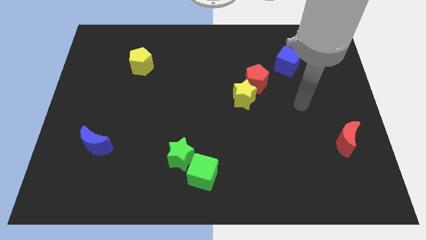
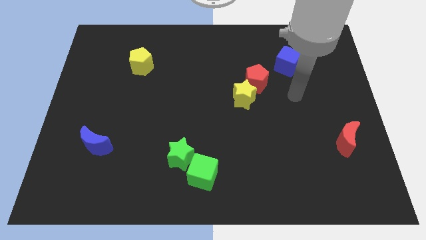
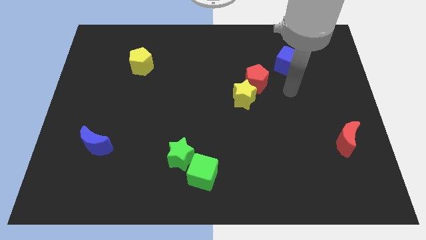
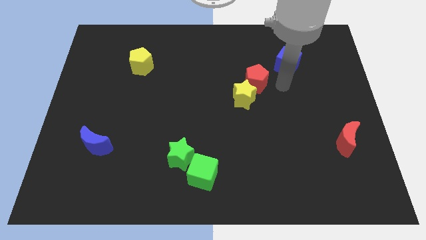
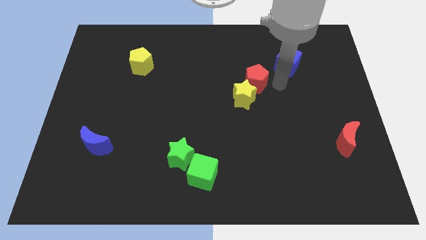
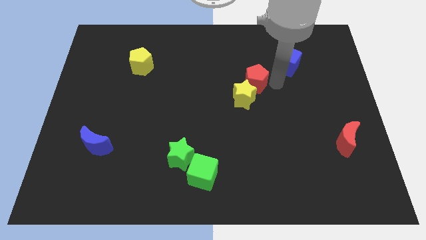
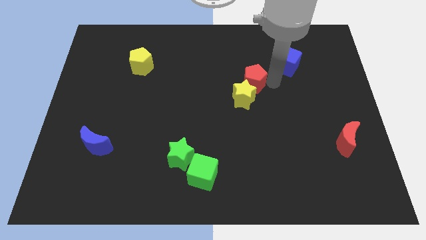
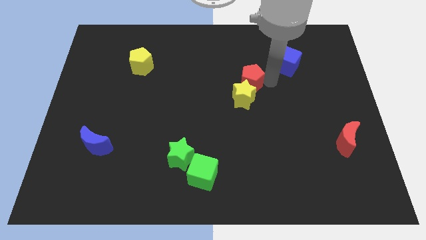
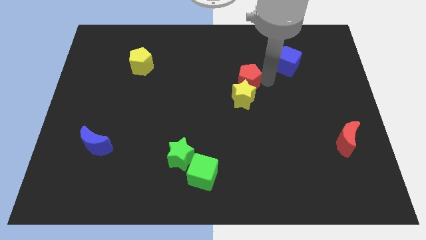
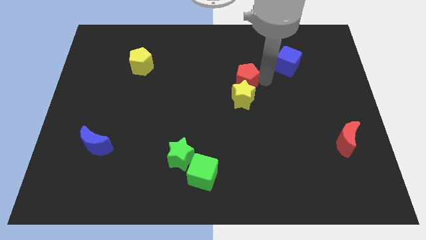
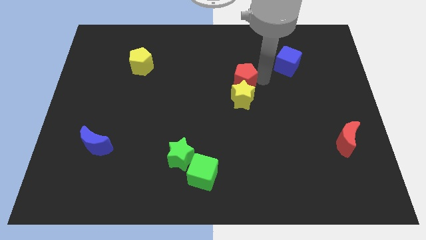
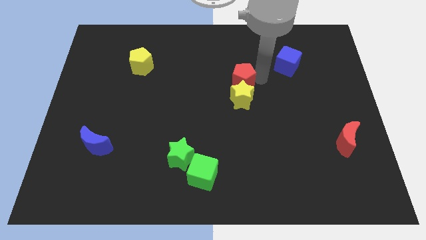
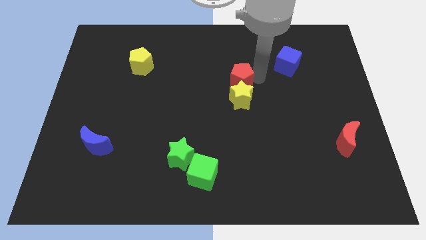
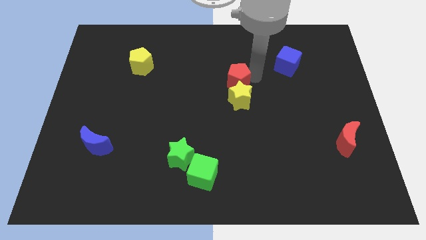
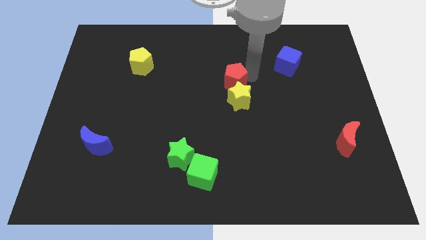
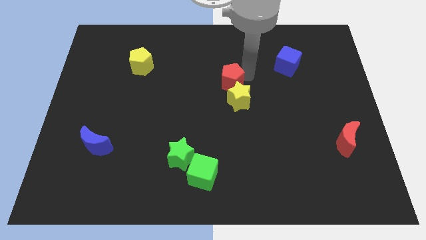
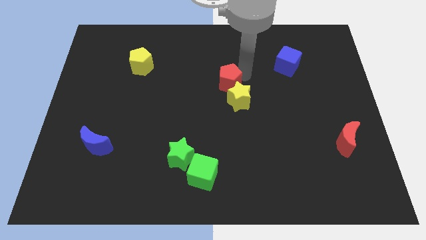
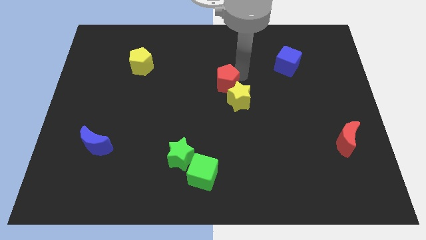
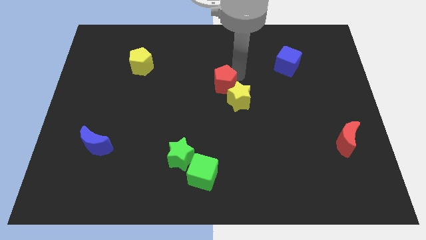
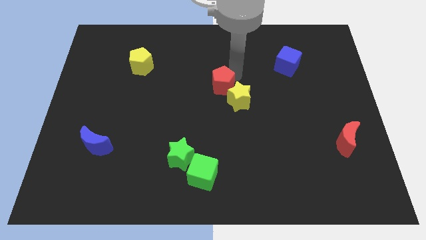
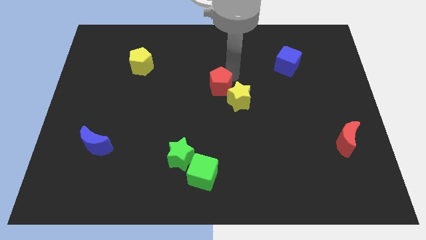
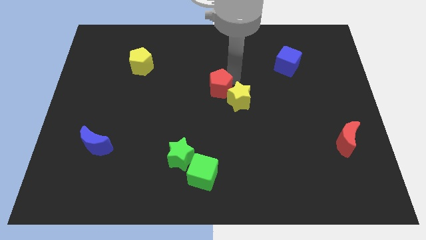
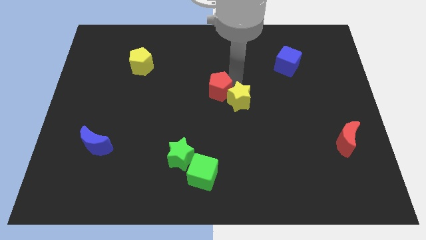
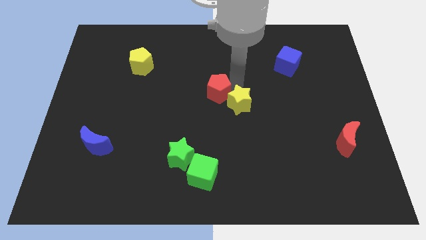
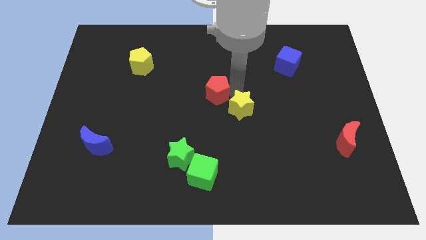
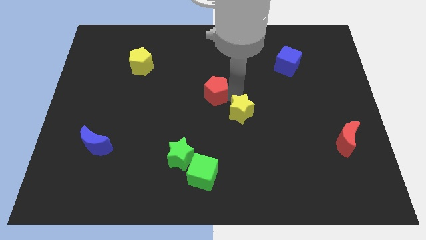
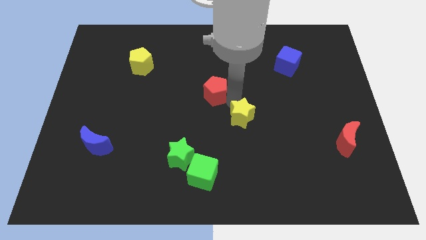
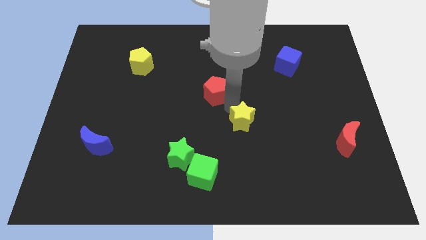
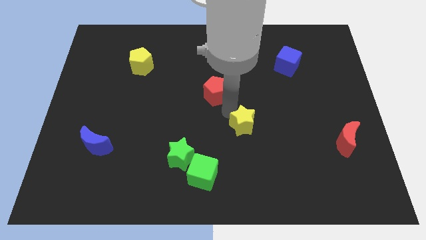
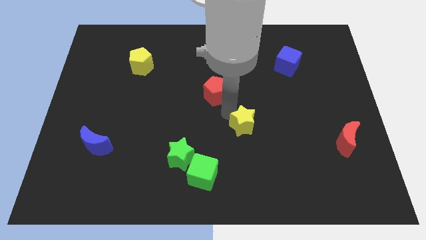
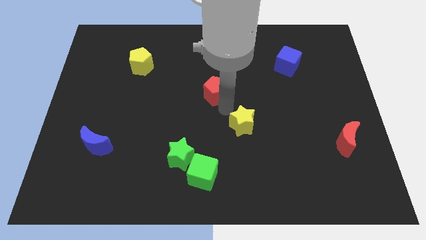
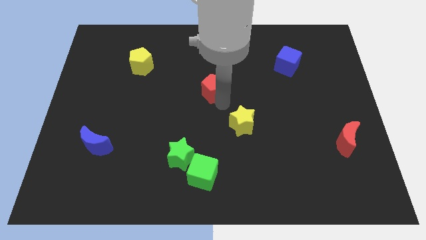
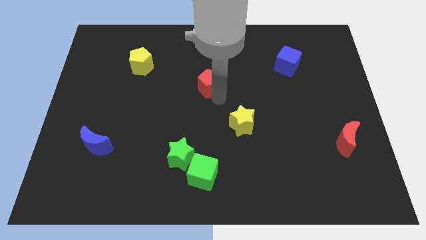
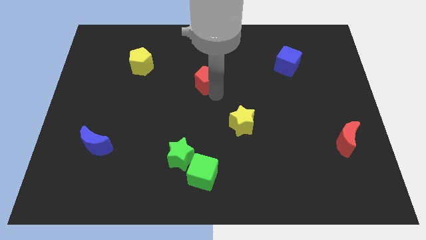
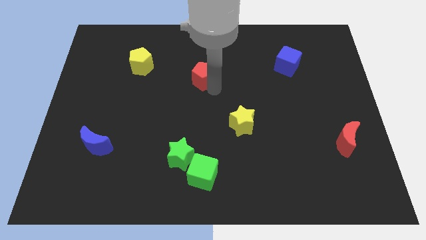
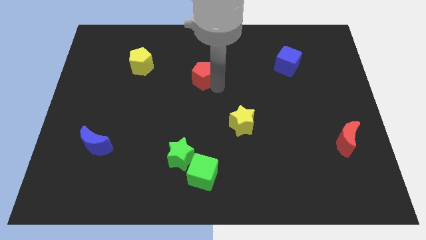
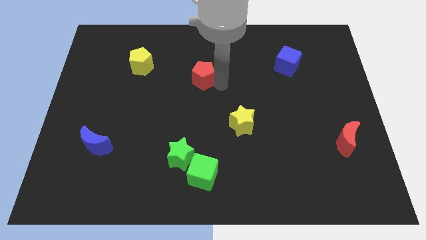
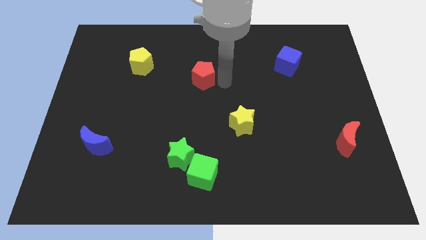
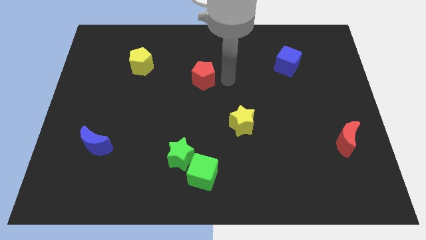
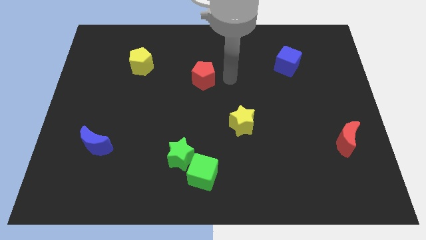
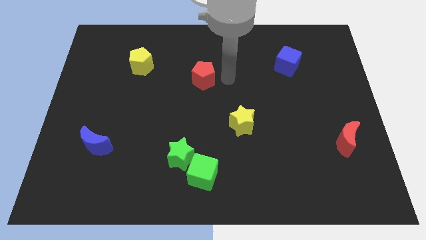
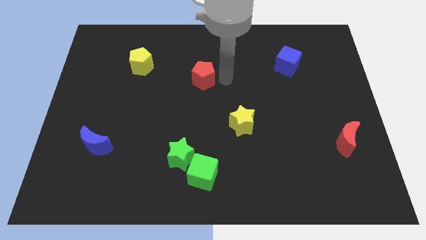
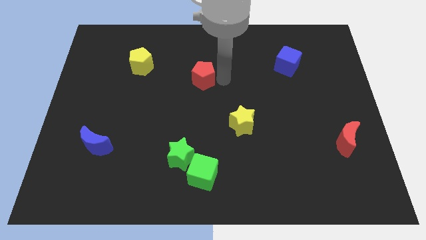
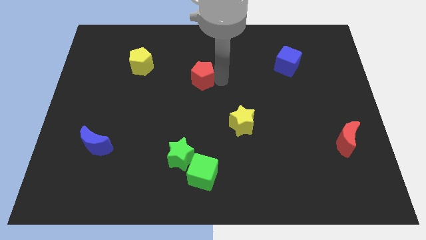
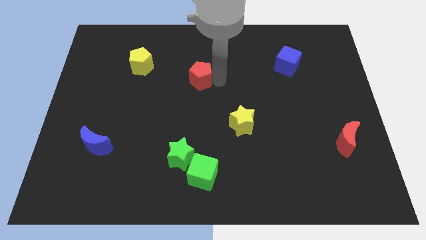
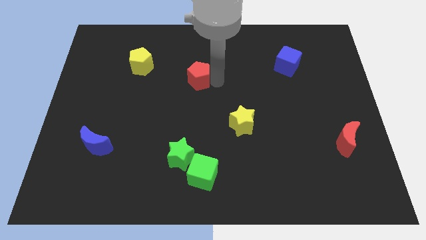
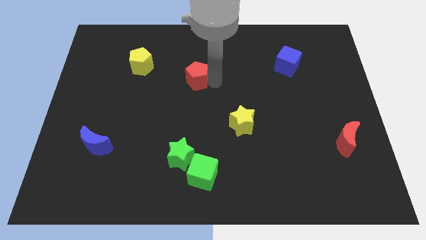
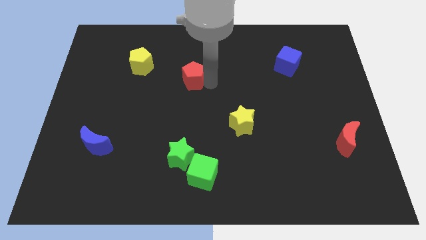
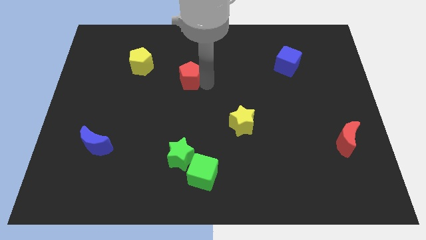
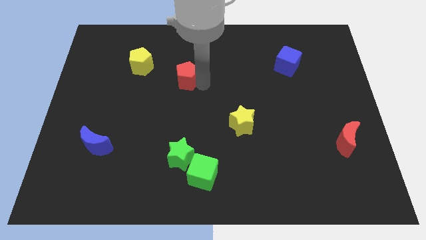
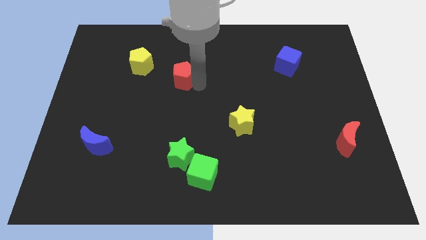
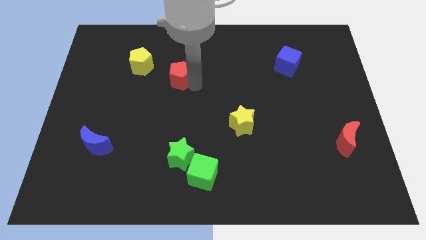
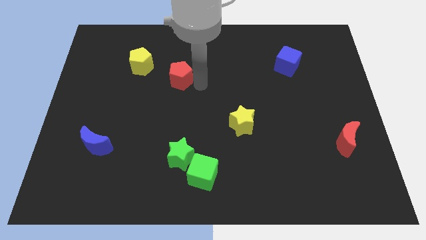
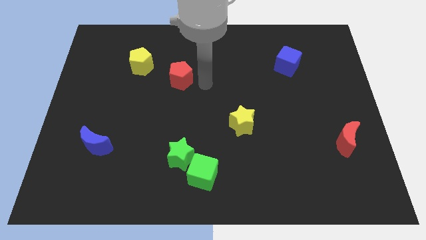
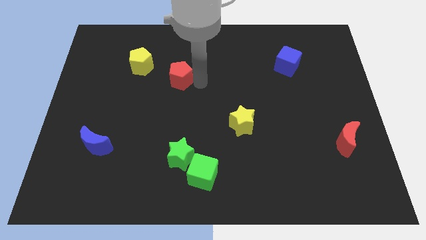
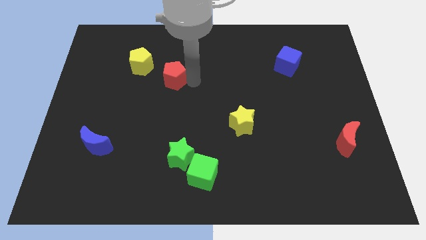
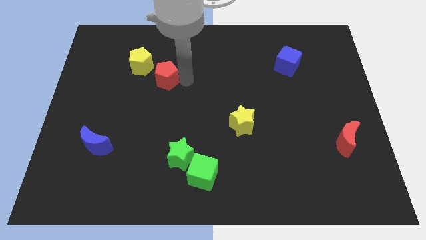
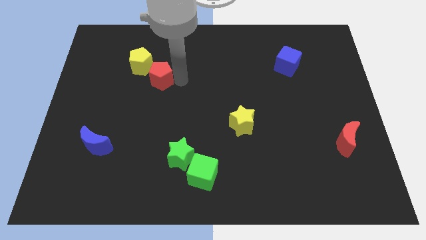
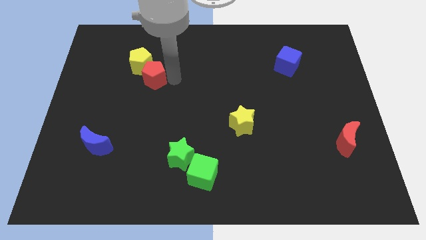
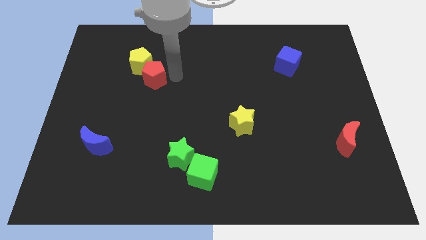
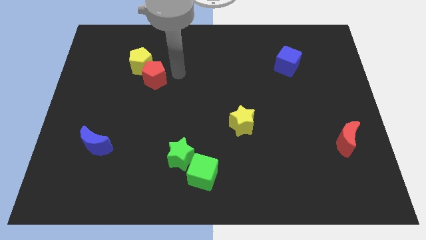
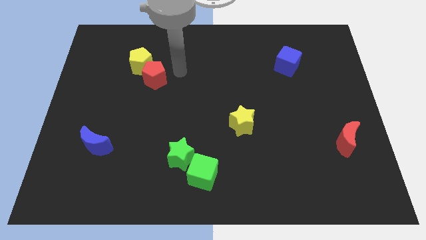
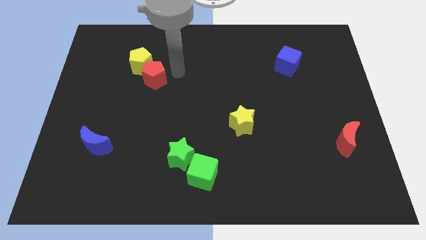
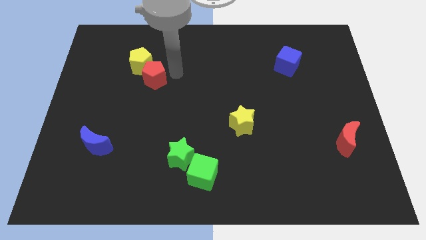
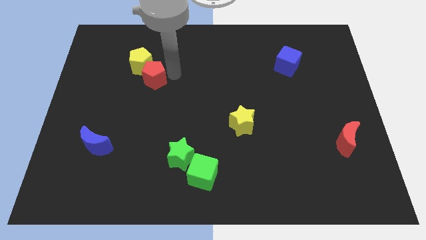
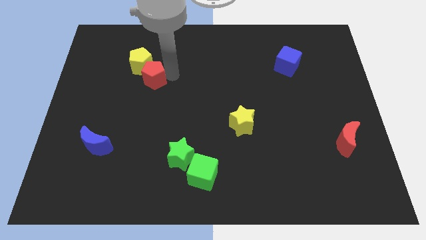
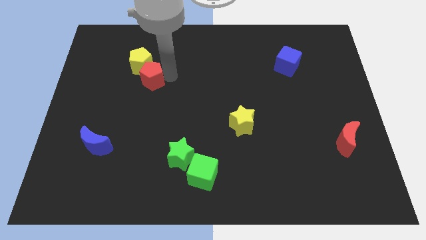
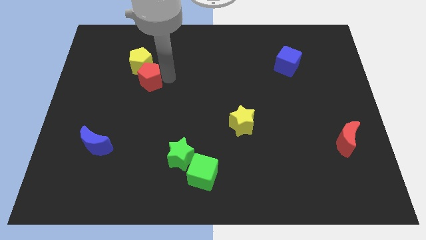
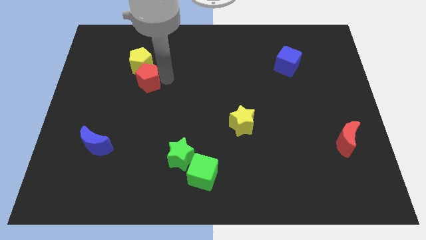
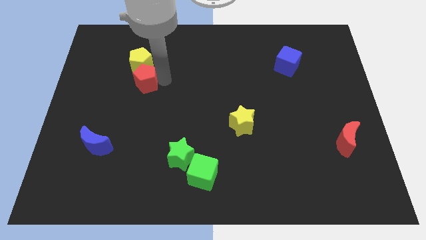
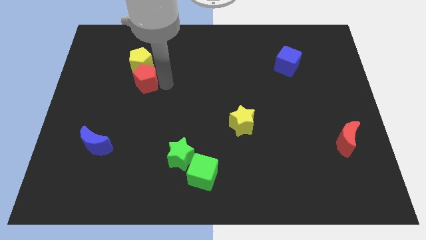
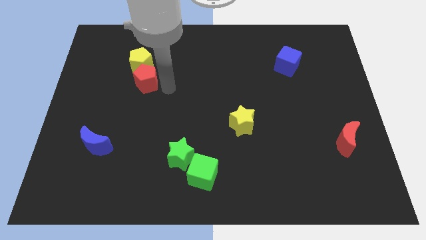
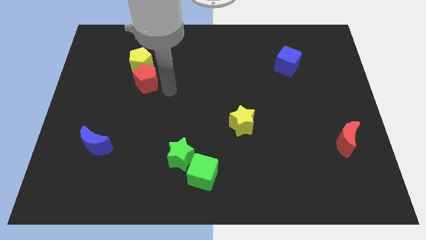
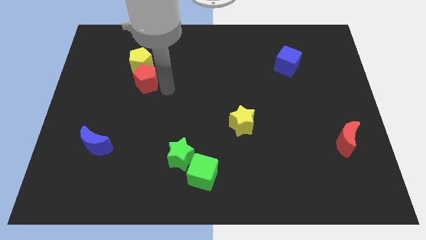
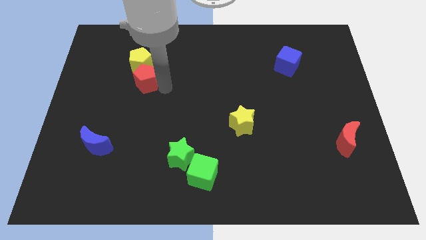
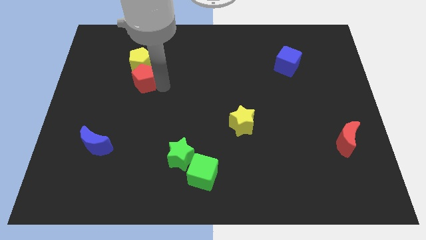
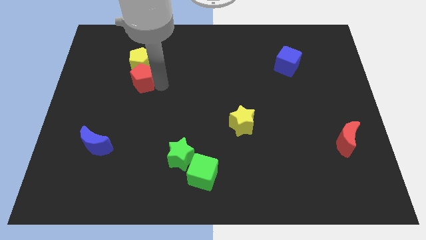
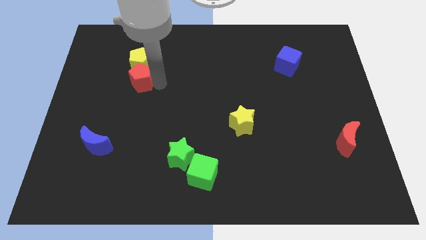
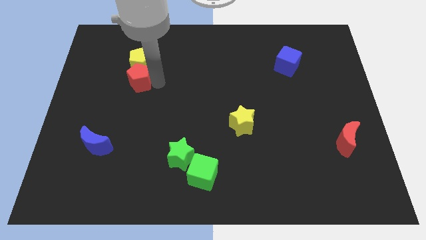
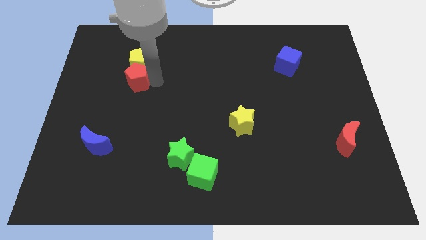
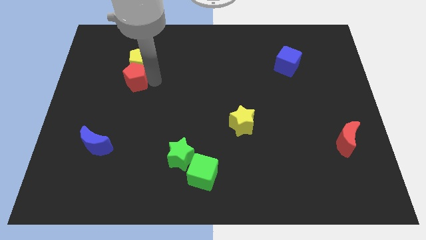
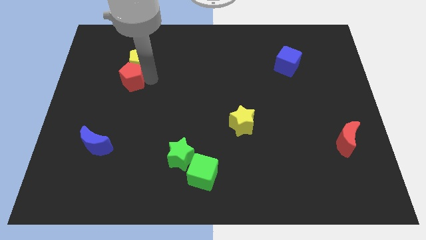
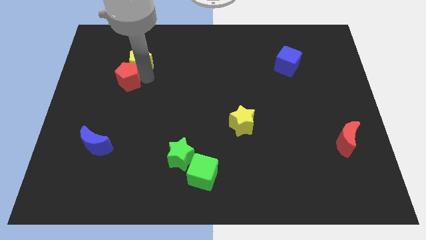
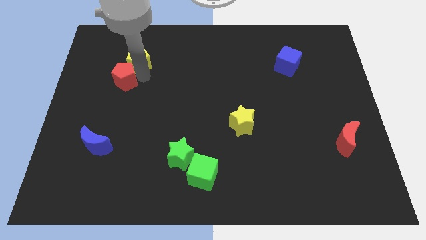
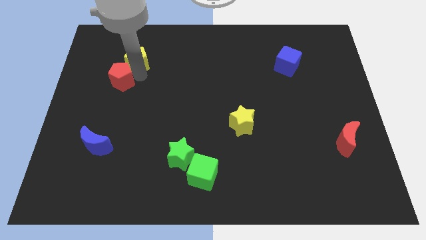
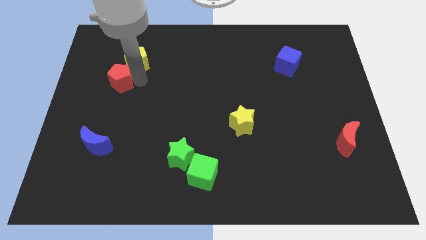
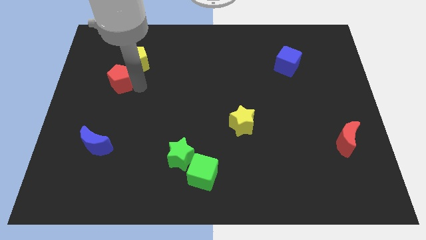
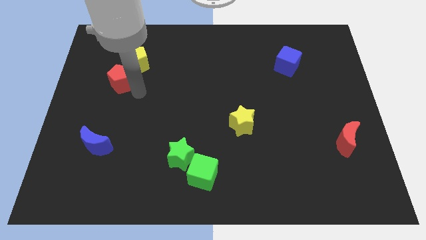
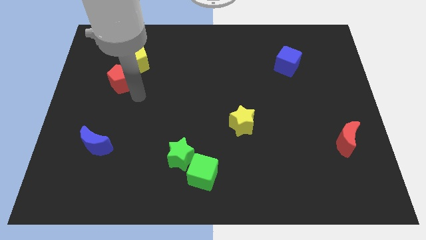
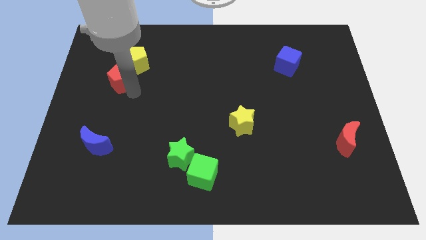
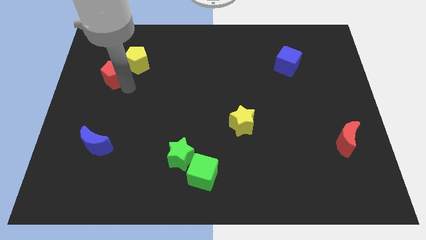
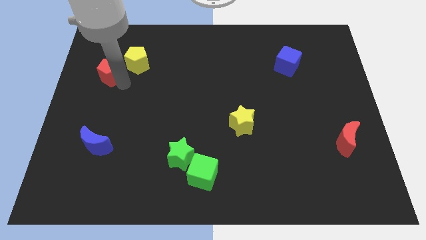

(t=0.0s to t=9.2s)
move the red pentagon left of the yellow pentagon
